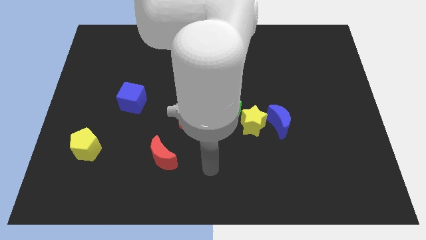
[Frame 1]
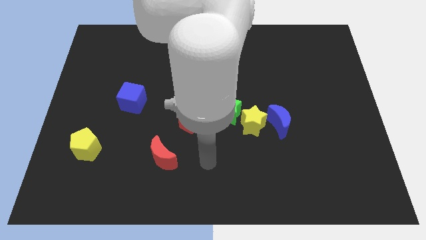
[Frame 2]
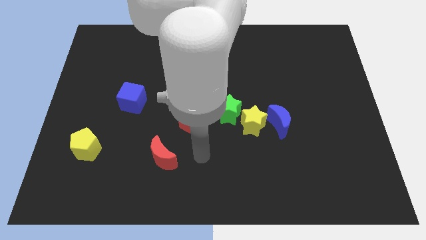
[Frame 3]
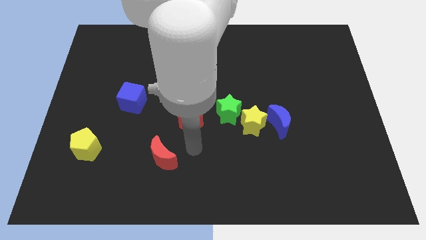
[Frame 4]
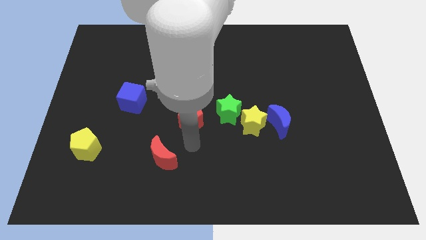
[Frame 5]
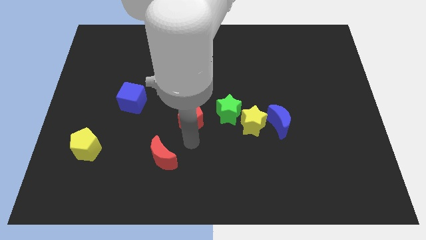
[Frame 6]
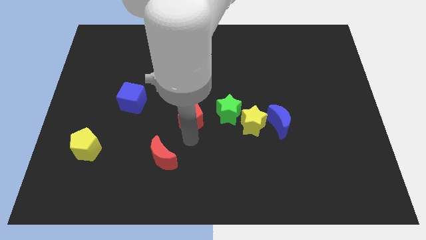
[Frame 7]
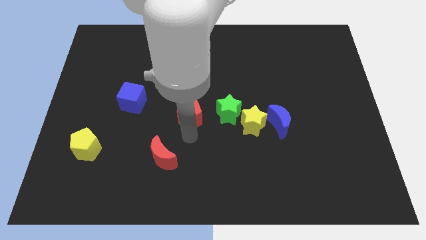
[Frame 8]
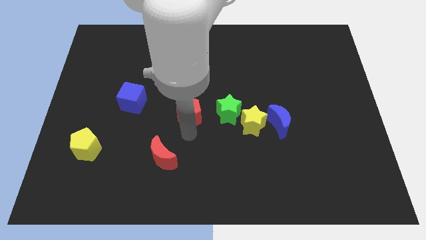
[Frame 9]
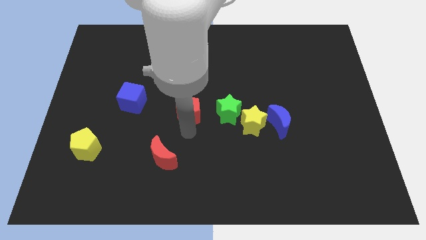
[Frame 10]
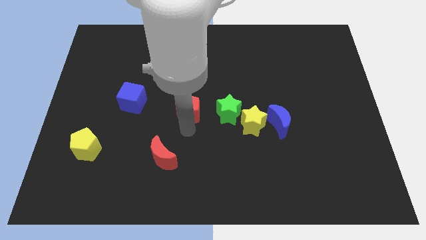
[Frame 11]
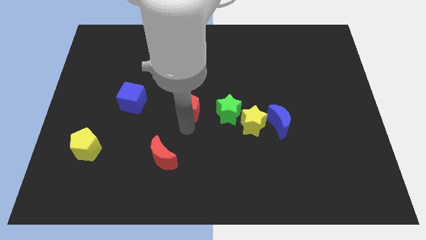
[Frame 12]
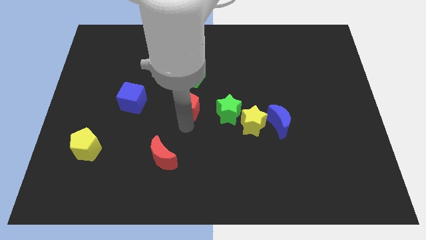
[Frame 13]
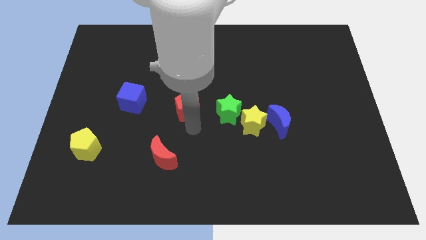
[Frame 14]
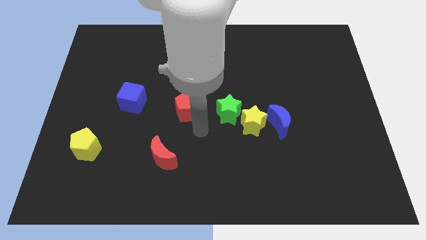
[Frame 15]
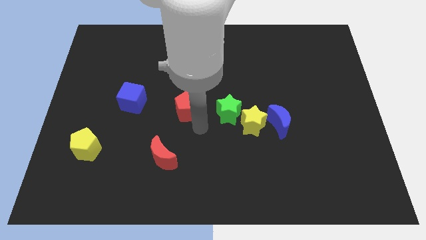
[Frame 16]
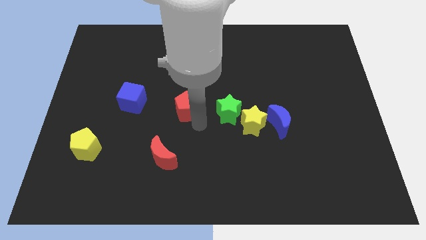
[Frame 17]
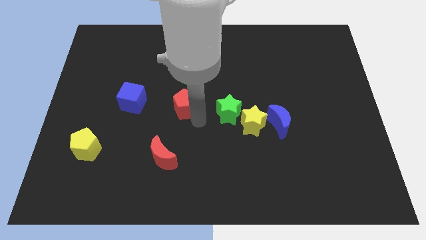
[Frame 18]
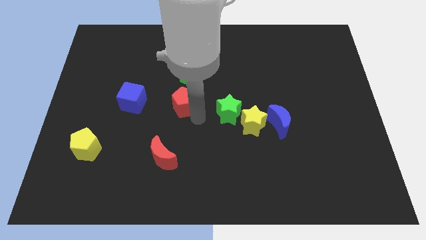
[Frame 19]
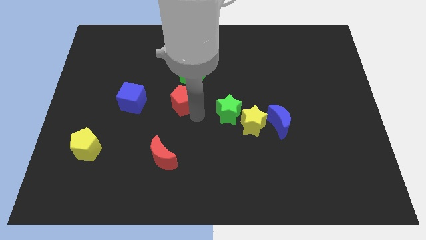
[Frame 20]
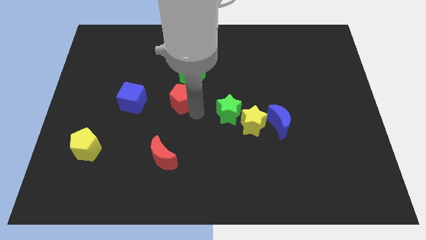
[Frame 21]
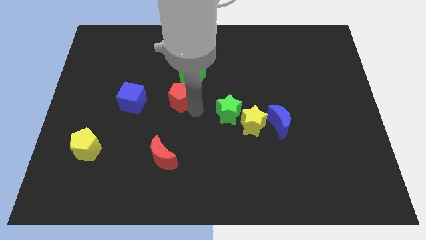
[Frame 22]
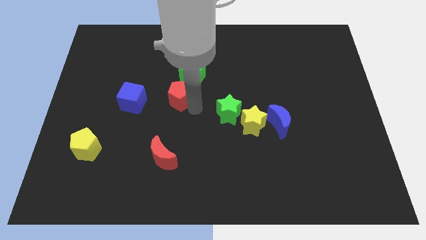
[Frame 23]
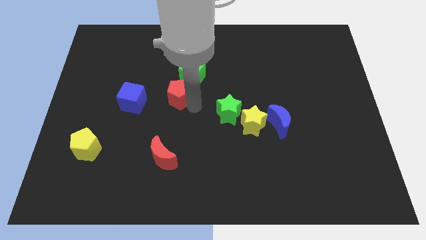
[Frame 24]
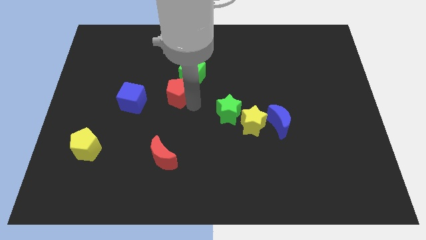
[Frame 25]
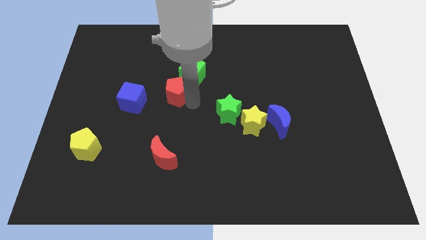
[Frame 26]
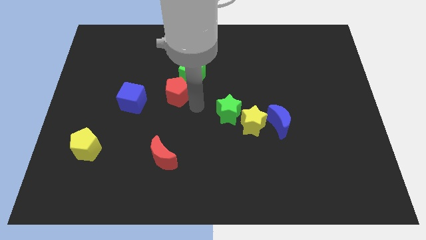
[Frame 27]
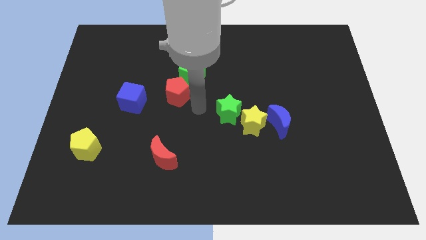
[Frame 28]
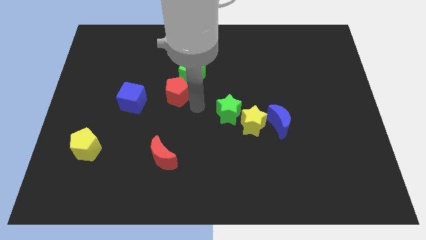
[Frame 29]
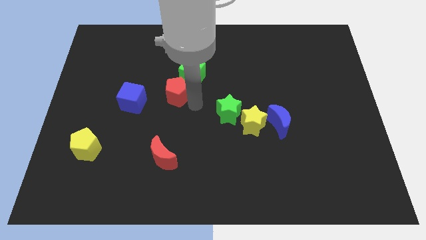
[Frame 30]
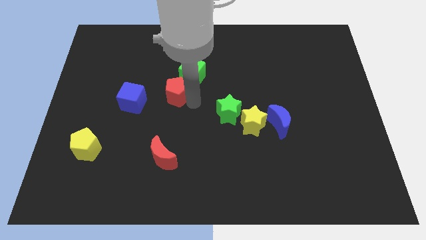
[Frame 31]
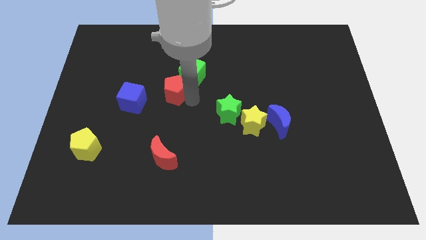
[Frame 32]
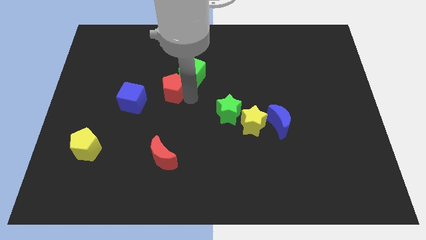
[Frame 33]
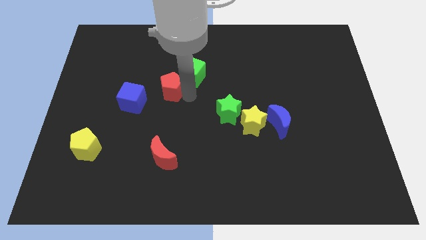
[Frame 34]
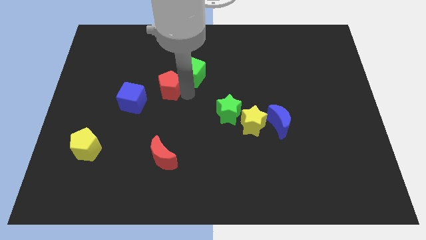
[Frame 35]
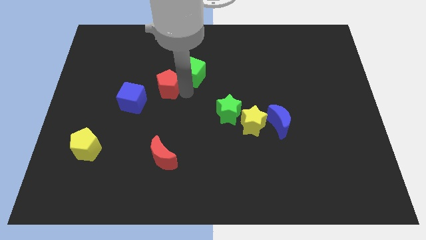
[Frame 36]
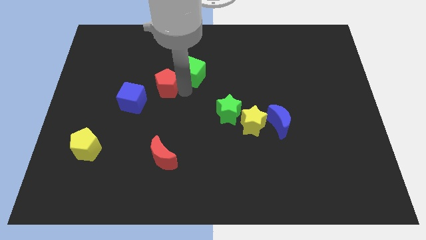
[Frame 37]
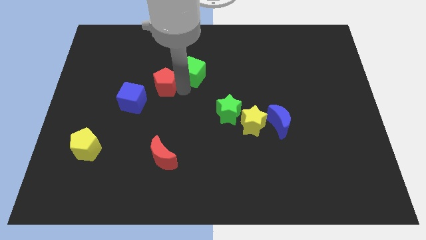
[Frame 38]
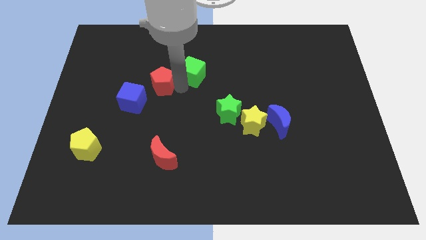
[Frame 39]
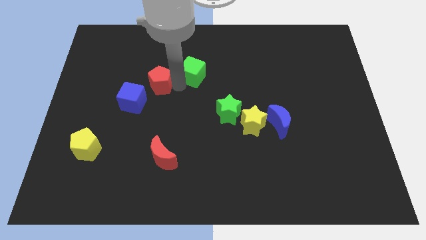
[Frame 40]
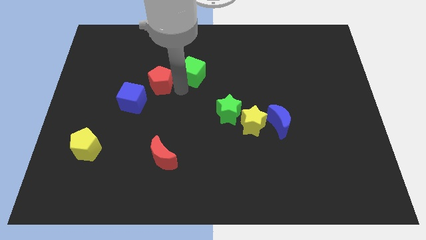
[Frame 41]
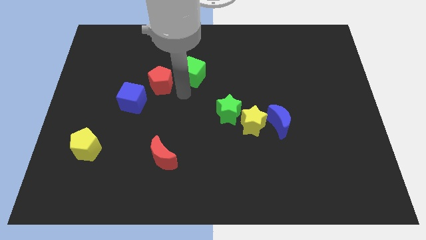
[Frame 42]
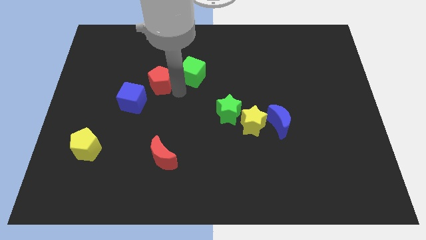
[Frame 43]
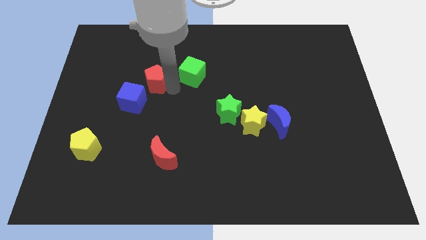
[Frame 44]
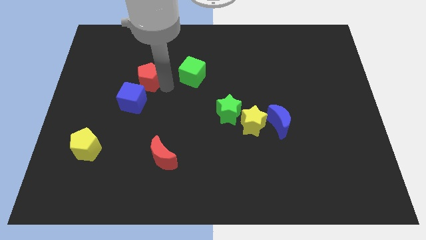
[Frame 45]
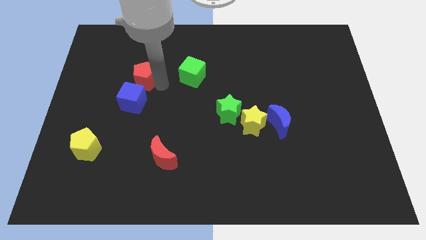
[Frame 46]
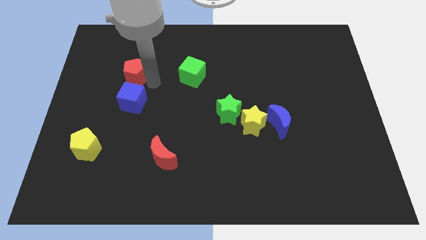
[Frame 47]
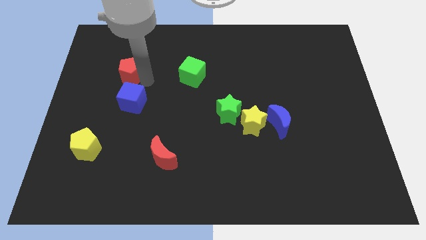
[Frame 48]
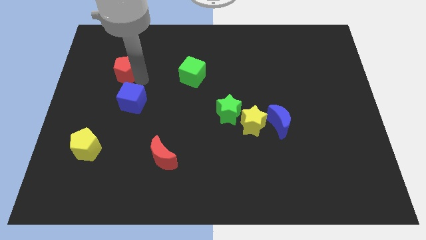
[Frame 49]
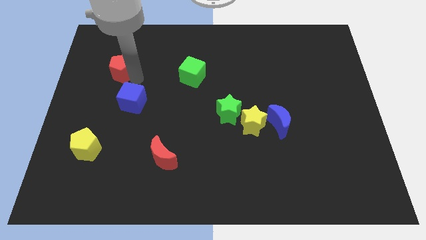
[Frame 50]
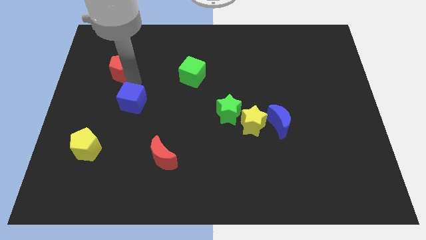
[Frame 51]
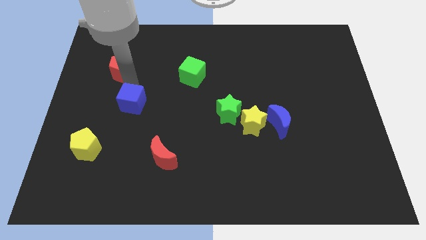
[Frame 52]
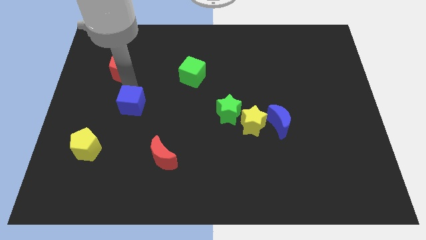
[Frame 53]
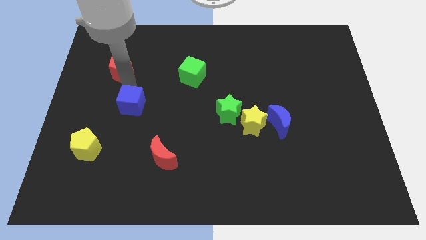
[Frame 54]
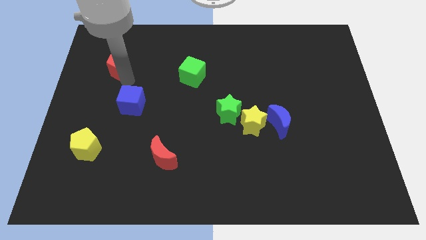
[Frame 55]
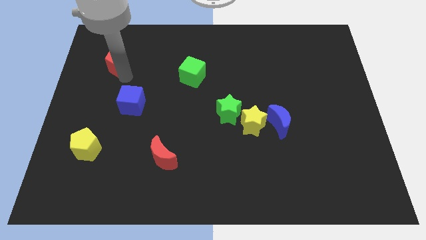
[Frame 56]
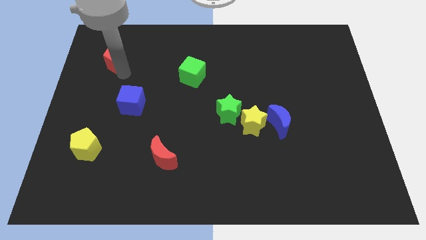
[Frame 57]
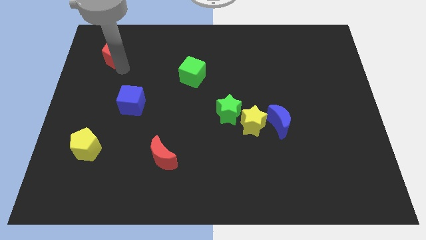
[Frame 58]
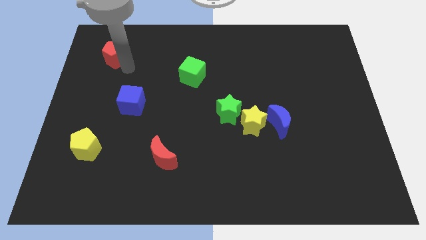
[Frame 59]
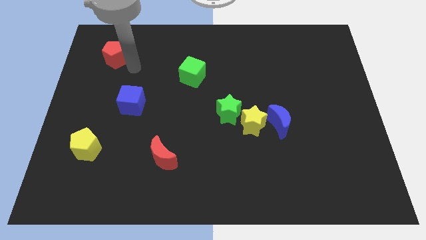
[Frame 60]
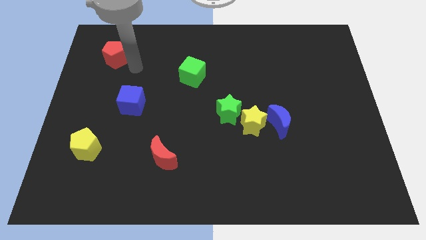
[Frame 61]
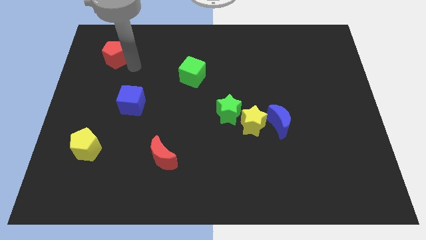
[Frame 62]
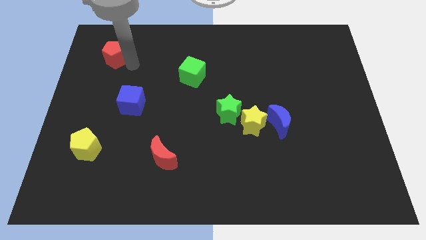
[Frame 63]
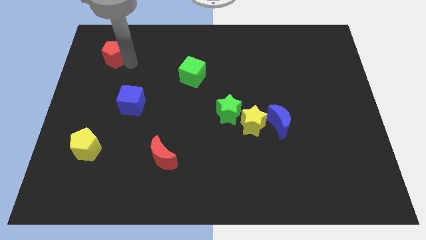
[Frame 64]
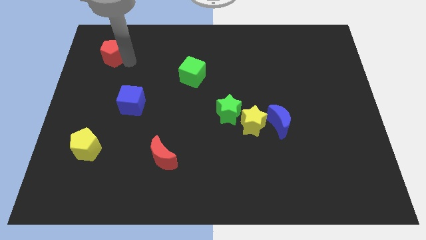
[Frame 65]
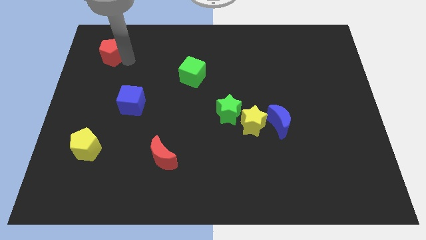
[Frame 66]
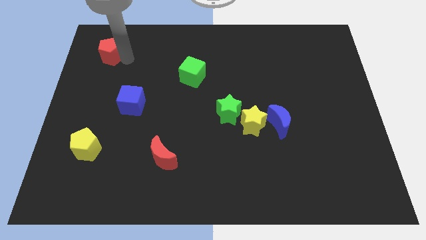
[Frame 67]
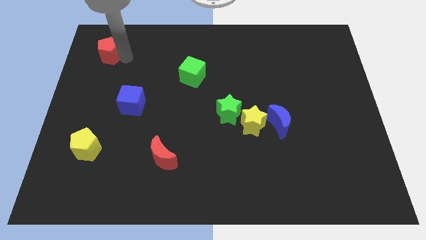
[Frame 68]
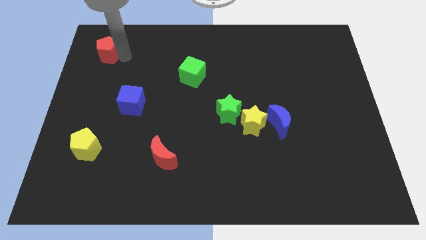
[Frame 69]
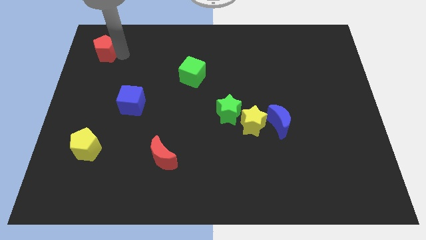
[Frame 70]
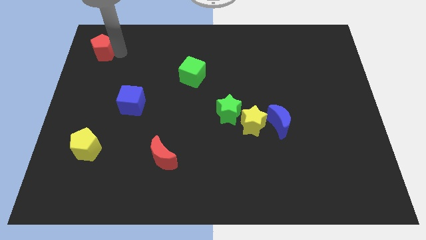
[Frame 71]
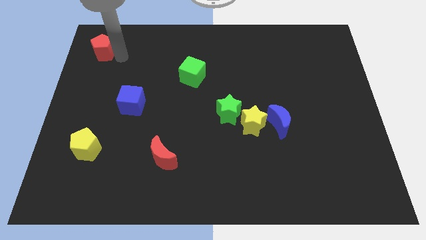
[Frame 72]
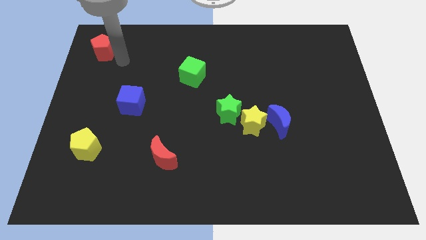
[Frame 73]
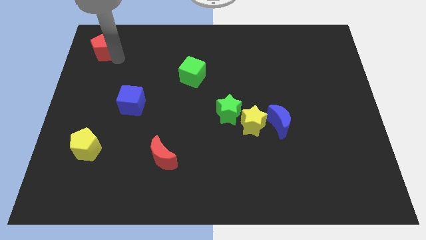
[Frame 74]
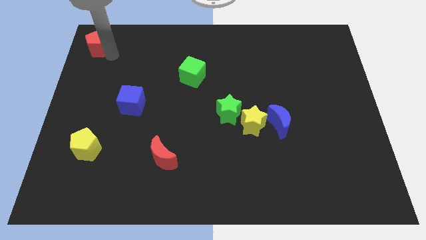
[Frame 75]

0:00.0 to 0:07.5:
put the red pentagon to the top left

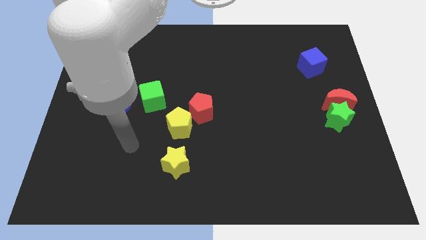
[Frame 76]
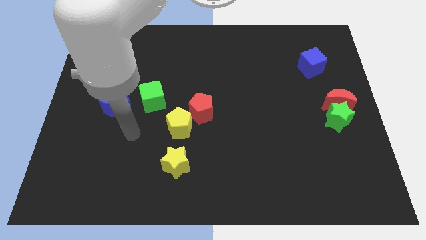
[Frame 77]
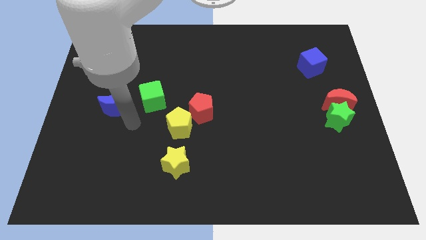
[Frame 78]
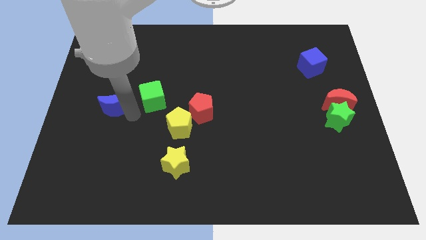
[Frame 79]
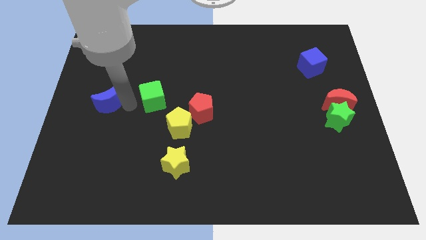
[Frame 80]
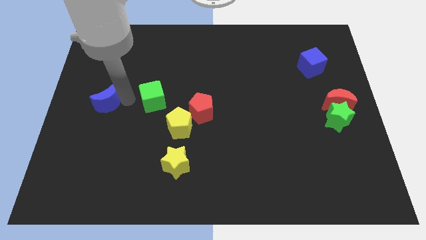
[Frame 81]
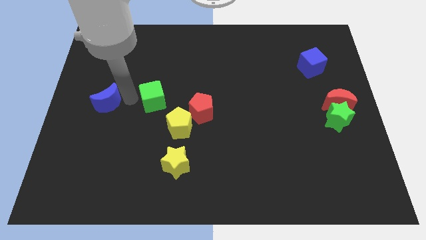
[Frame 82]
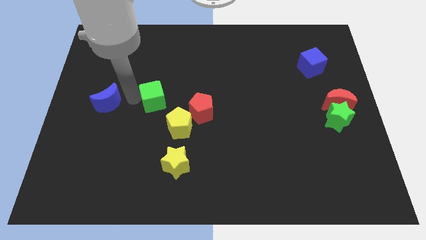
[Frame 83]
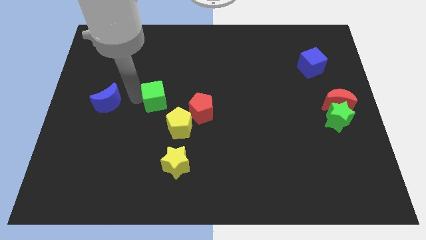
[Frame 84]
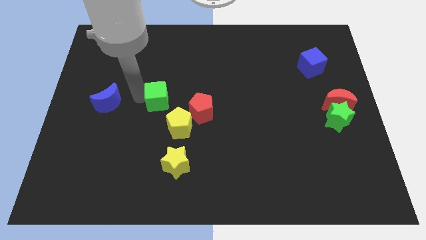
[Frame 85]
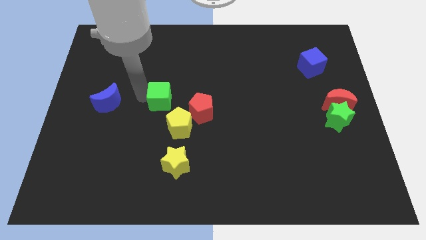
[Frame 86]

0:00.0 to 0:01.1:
move the green cube to the center
